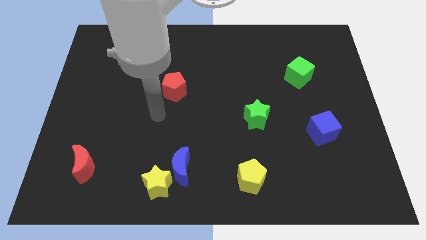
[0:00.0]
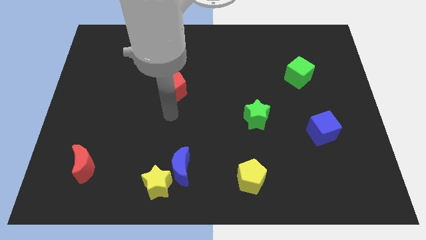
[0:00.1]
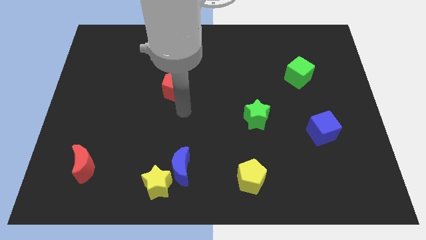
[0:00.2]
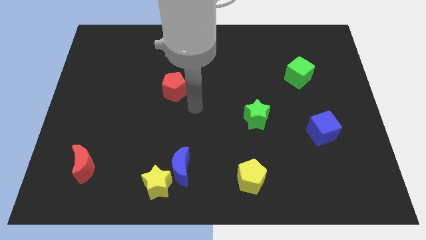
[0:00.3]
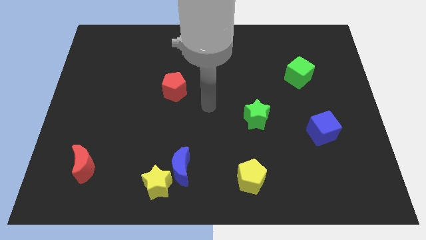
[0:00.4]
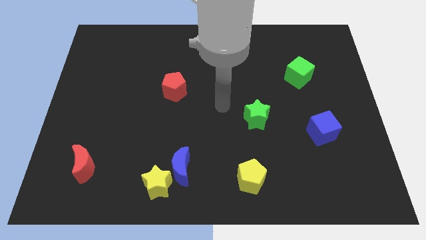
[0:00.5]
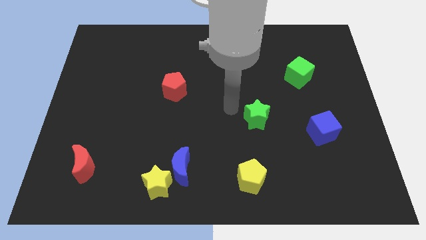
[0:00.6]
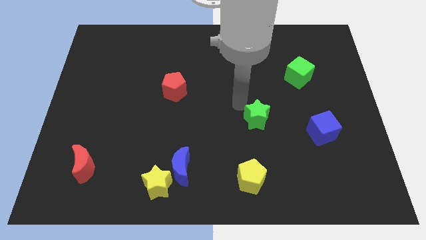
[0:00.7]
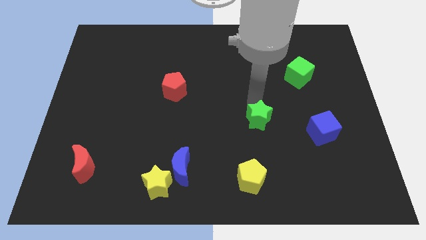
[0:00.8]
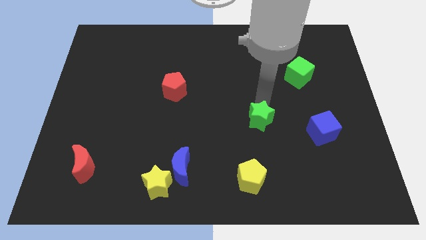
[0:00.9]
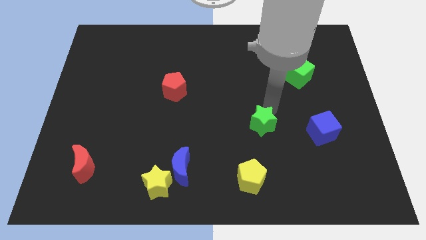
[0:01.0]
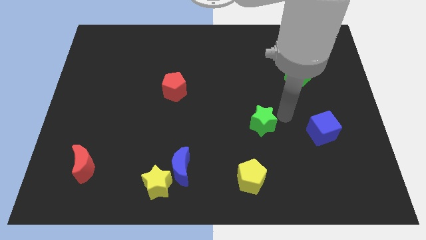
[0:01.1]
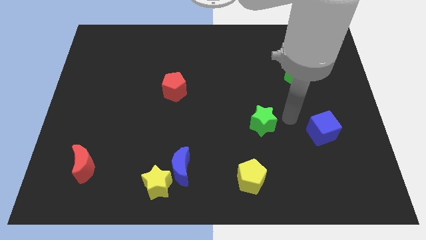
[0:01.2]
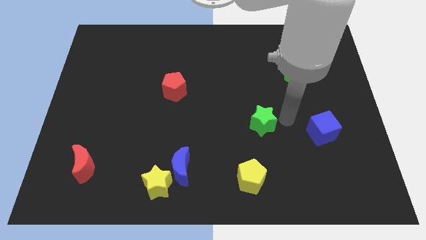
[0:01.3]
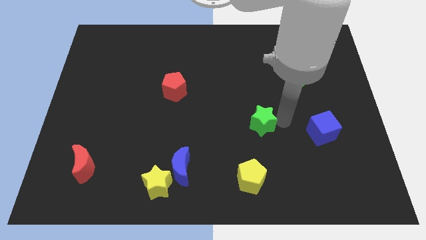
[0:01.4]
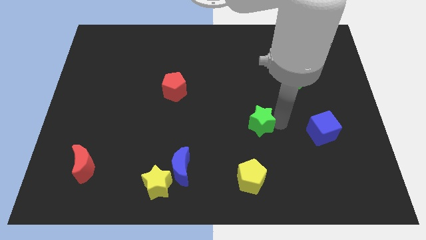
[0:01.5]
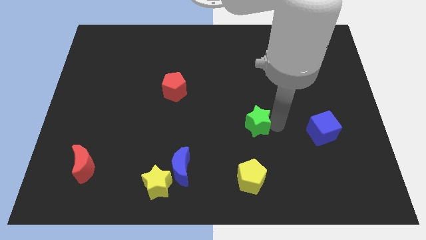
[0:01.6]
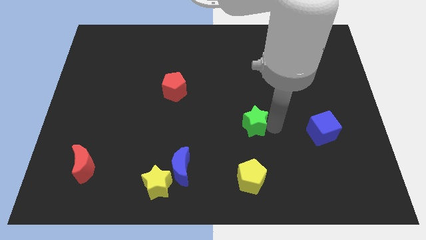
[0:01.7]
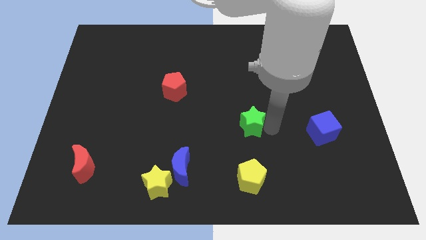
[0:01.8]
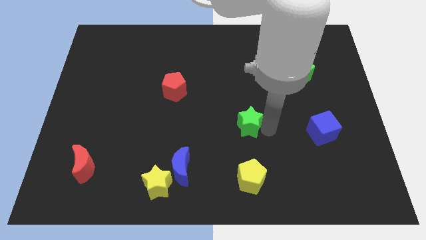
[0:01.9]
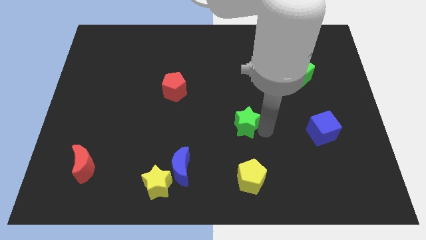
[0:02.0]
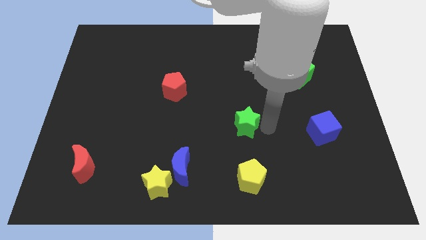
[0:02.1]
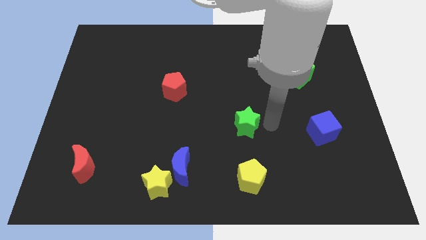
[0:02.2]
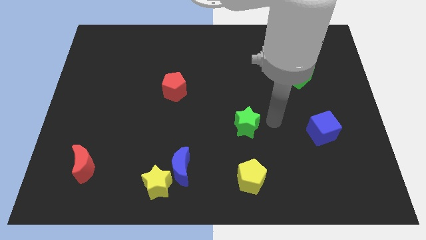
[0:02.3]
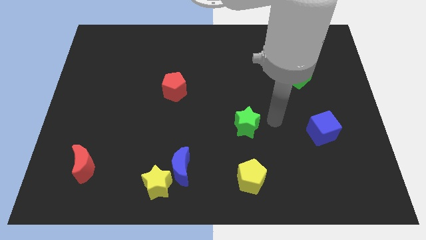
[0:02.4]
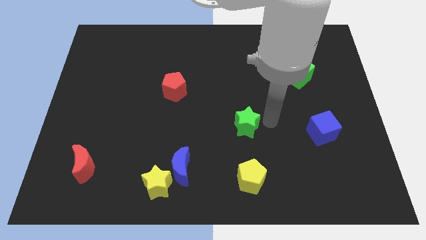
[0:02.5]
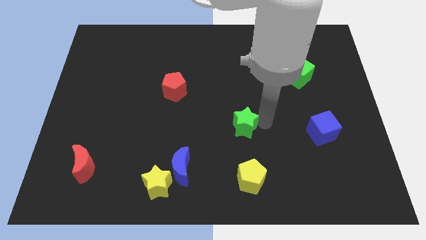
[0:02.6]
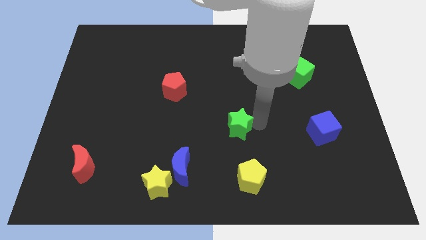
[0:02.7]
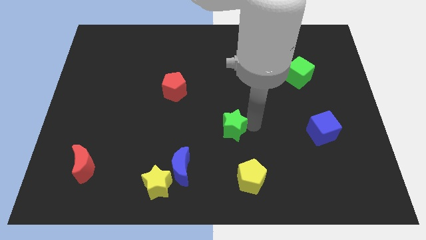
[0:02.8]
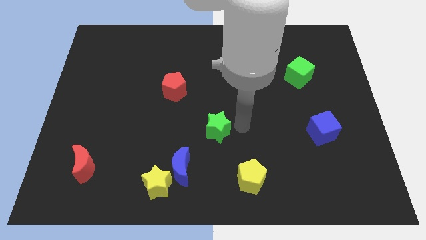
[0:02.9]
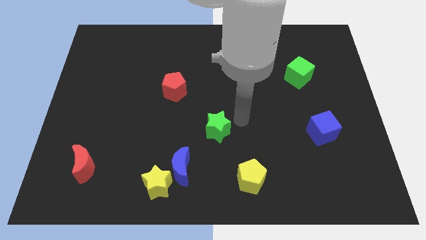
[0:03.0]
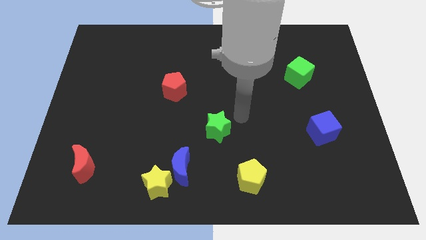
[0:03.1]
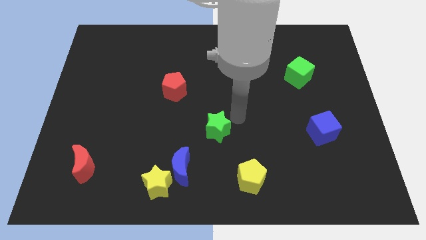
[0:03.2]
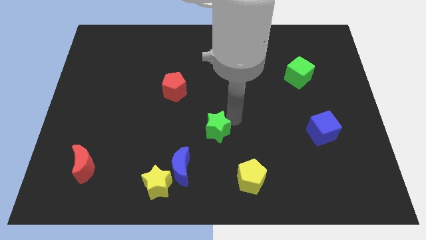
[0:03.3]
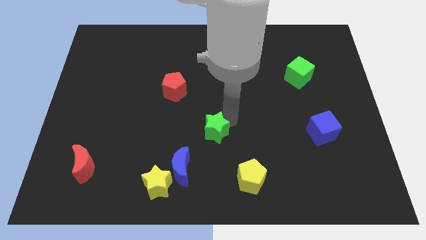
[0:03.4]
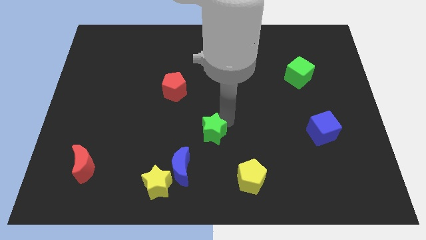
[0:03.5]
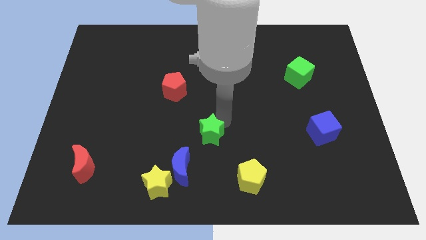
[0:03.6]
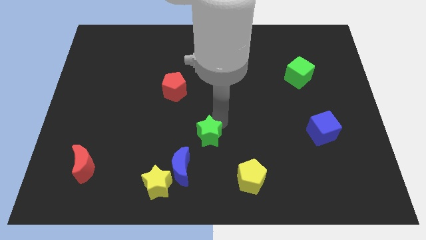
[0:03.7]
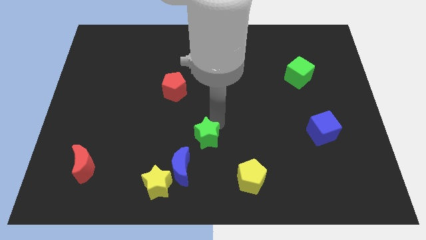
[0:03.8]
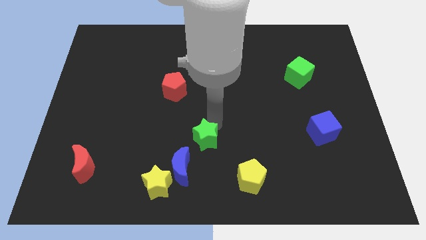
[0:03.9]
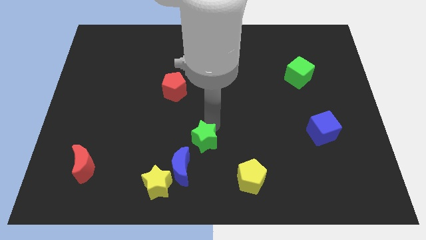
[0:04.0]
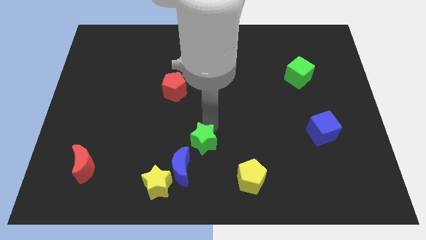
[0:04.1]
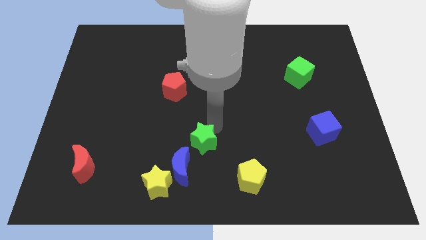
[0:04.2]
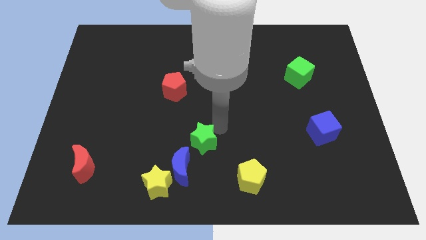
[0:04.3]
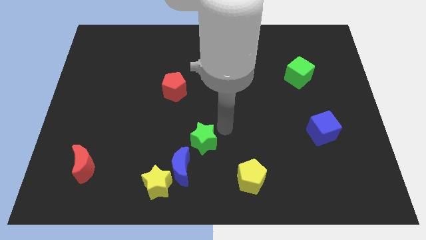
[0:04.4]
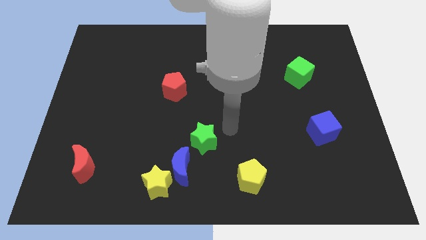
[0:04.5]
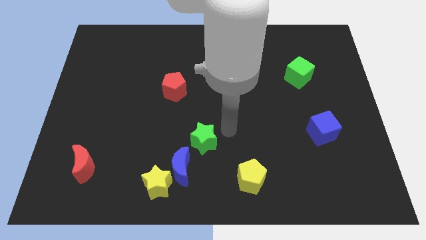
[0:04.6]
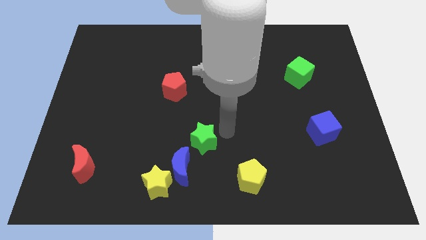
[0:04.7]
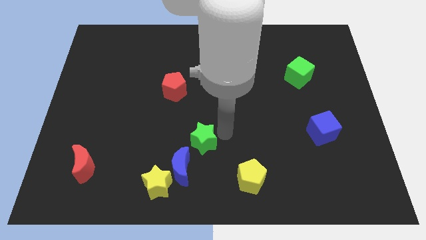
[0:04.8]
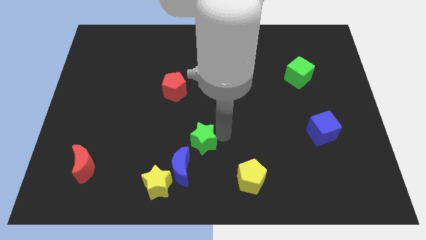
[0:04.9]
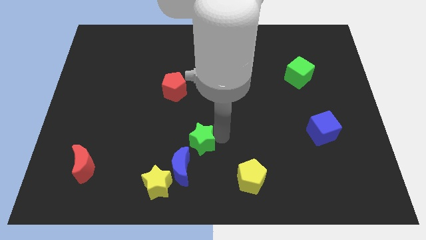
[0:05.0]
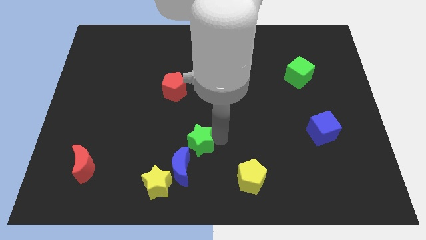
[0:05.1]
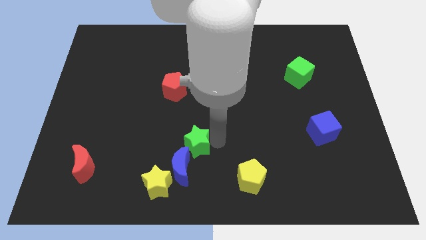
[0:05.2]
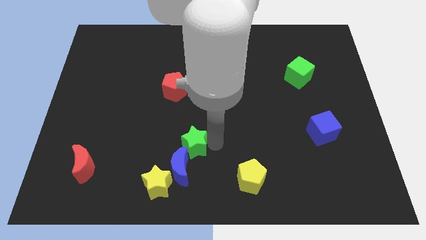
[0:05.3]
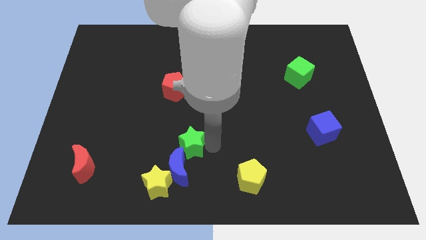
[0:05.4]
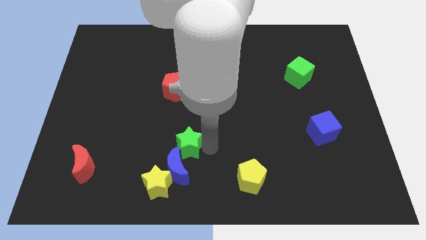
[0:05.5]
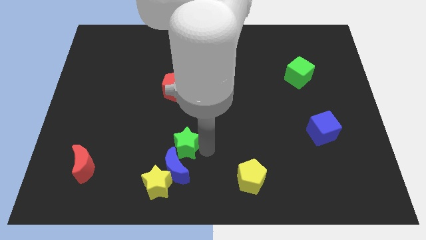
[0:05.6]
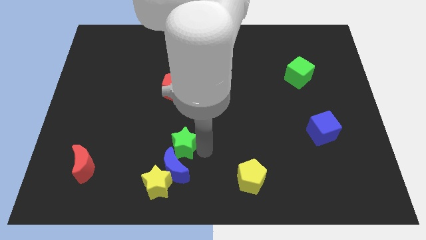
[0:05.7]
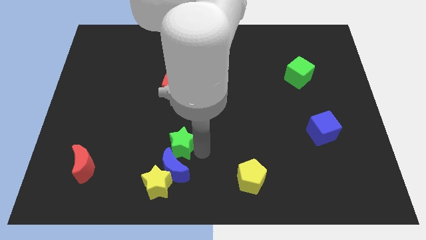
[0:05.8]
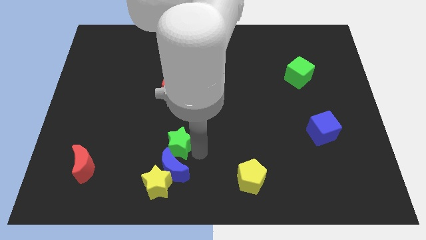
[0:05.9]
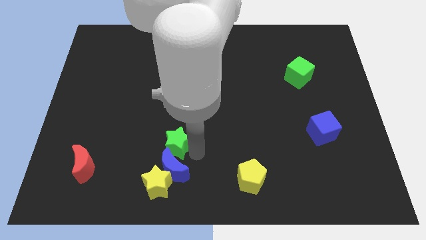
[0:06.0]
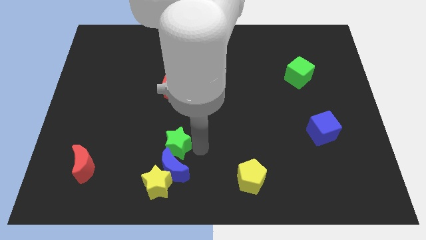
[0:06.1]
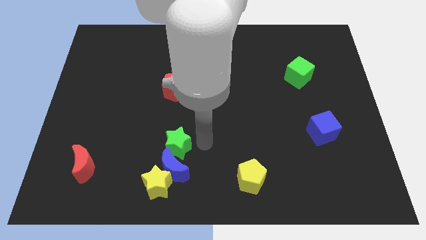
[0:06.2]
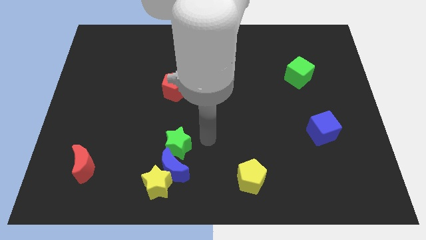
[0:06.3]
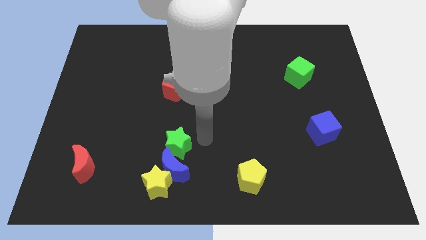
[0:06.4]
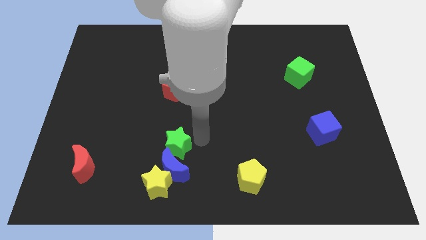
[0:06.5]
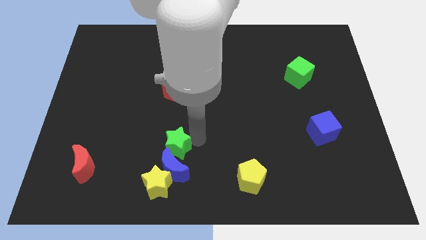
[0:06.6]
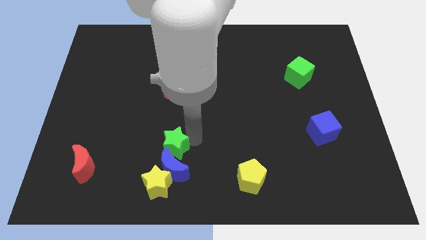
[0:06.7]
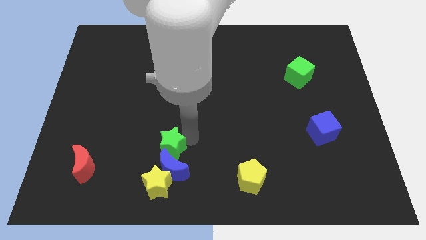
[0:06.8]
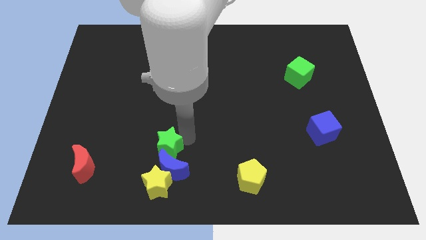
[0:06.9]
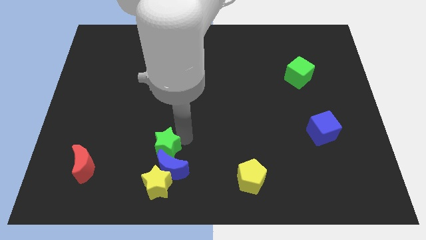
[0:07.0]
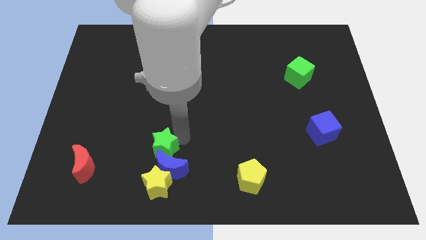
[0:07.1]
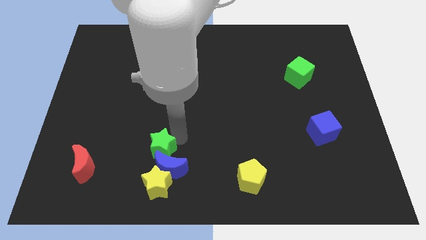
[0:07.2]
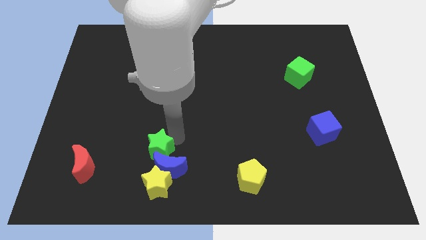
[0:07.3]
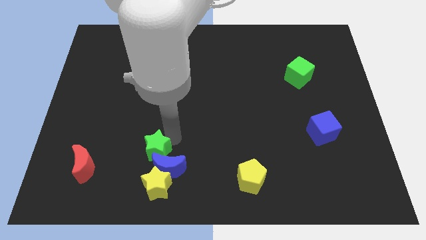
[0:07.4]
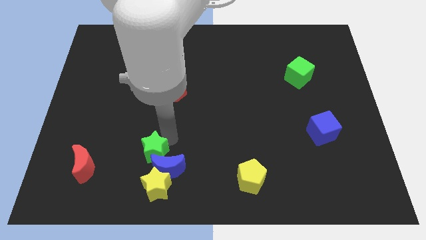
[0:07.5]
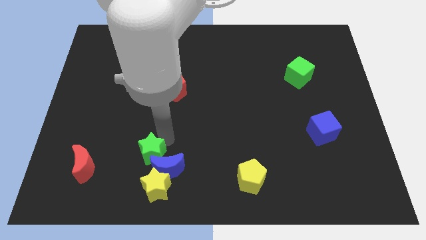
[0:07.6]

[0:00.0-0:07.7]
push the green star to the top left of the yellow star
